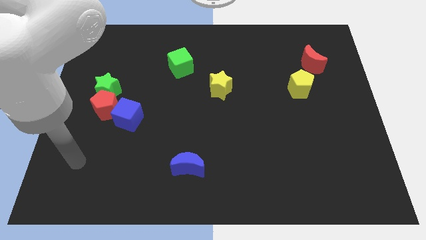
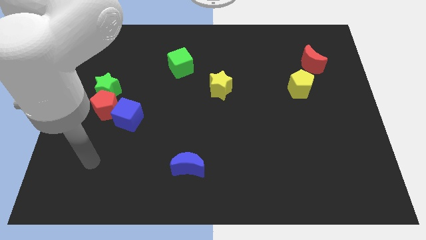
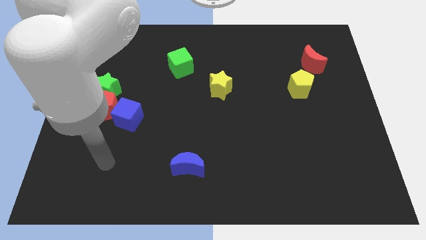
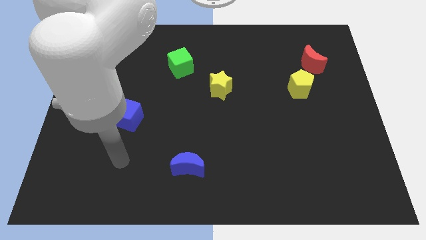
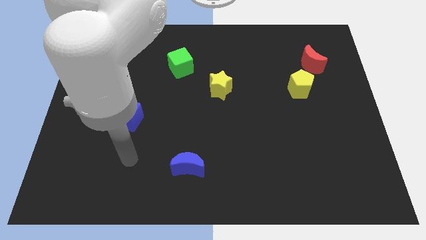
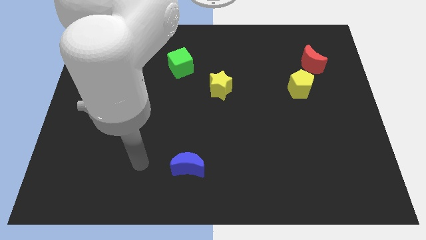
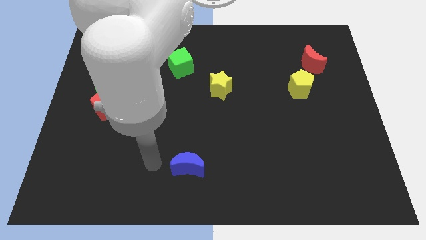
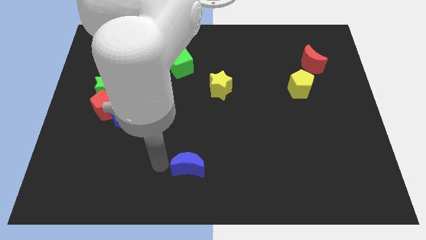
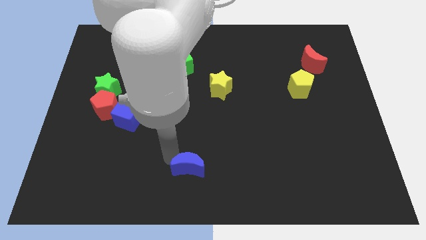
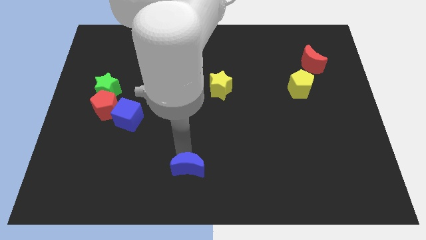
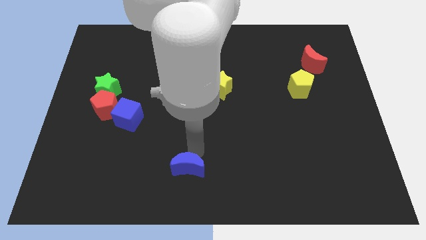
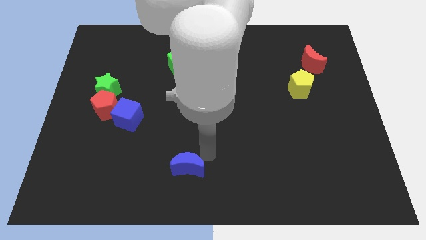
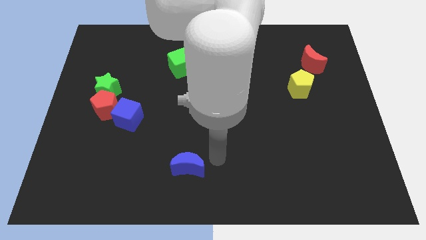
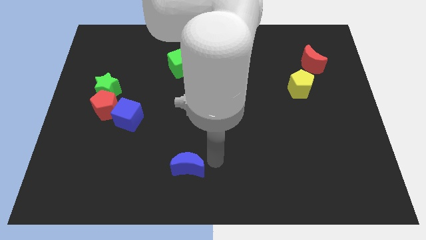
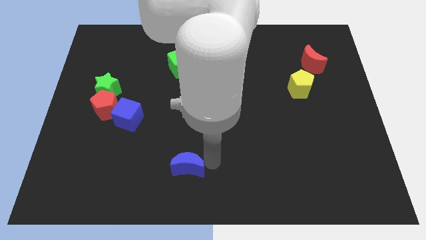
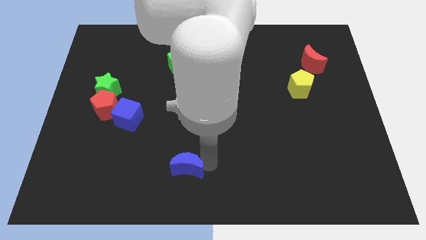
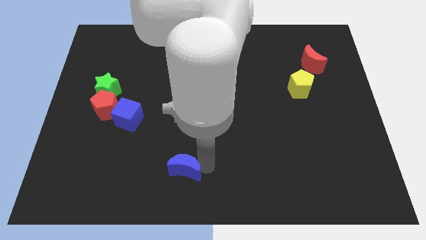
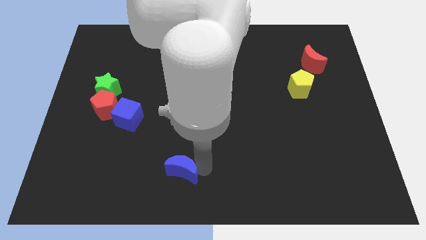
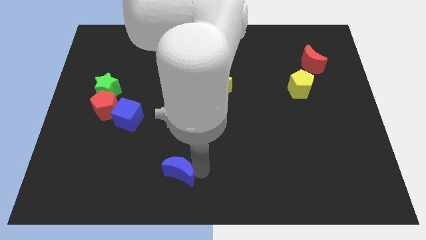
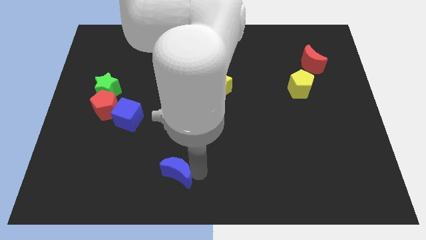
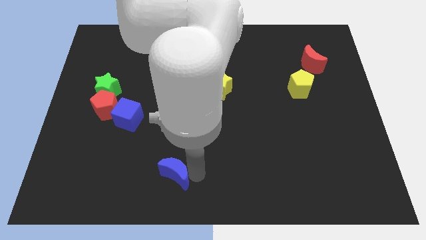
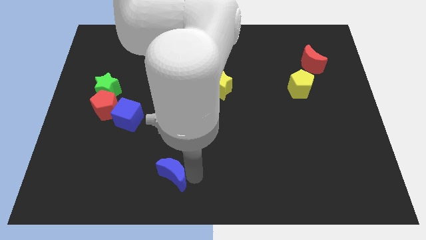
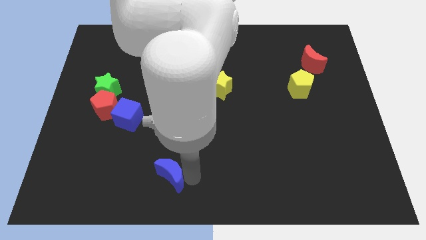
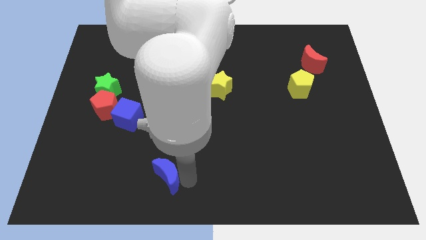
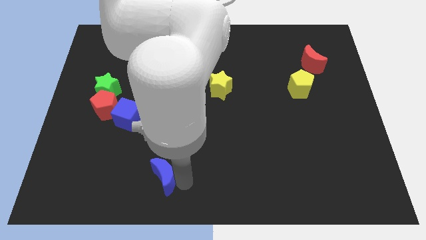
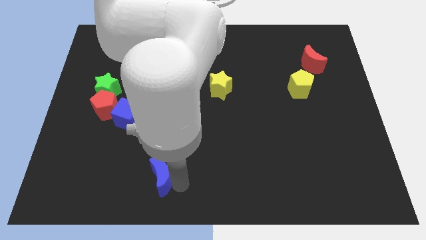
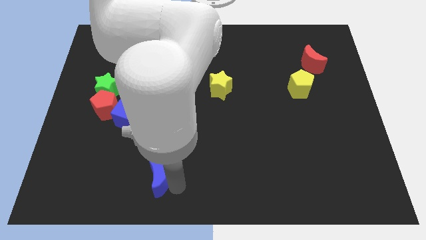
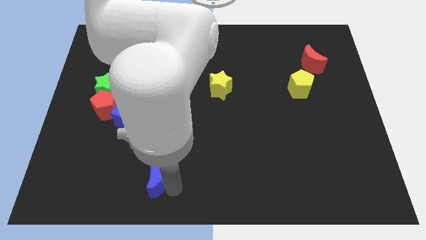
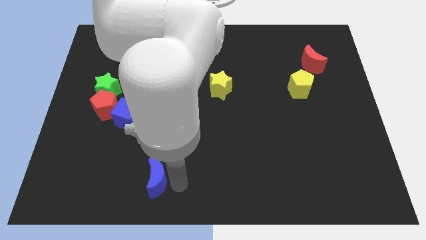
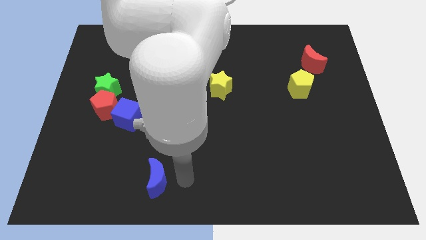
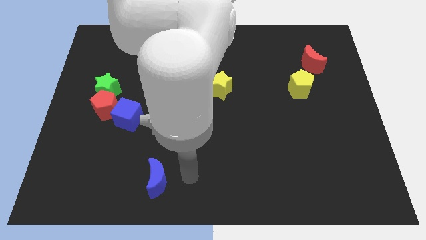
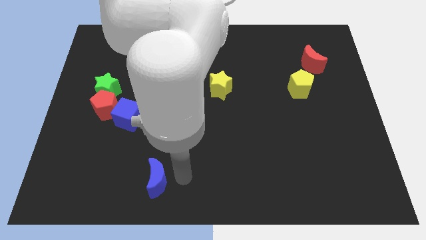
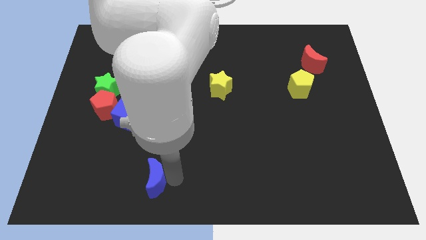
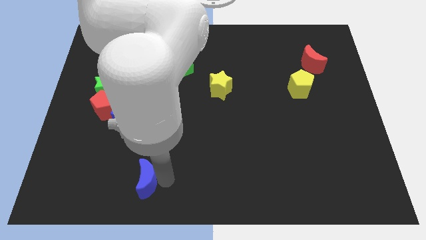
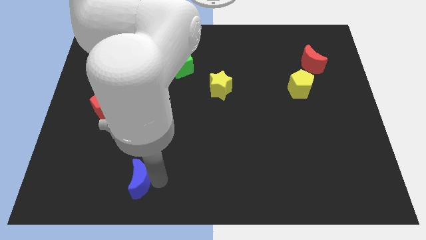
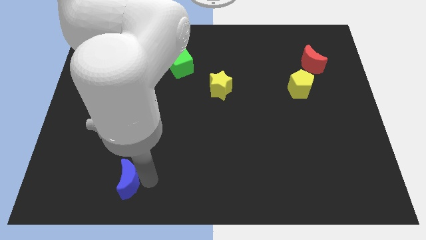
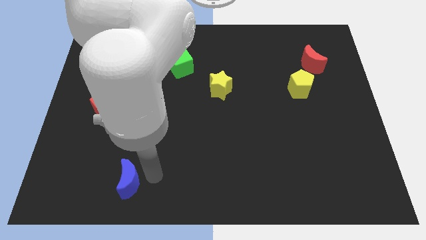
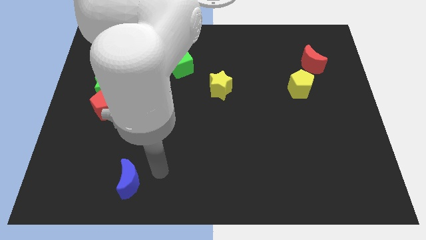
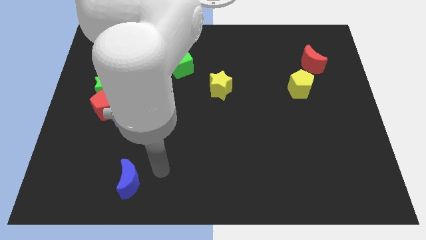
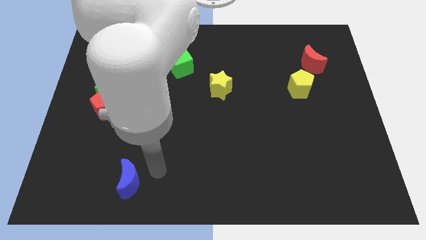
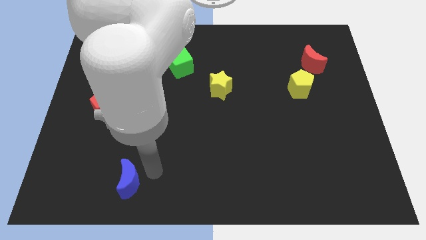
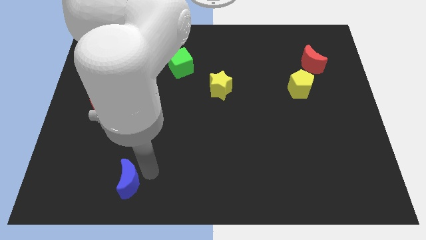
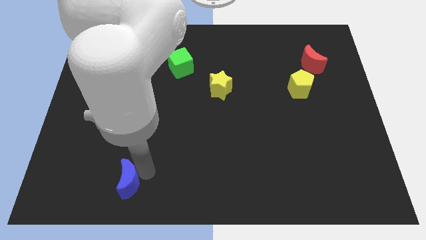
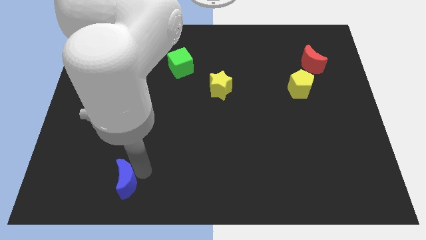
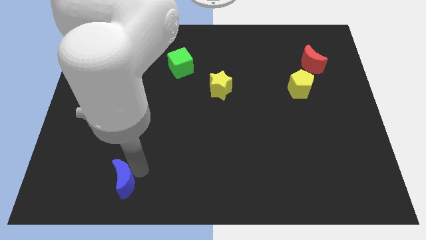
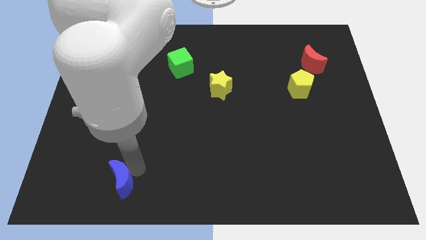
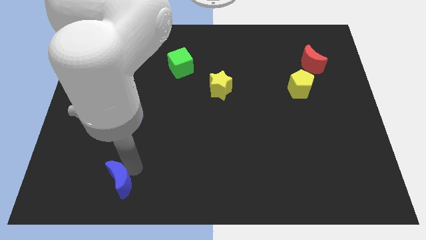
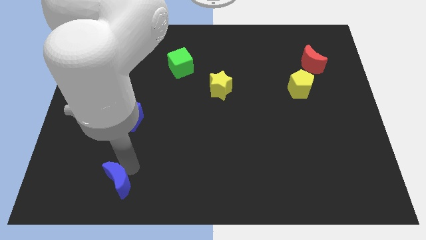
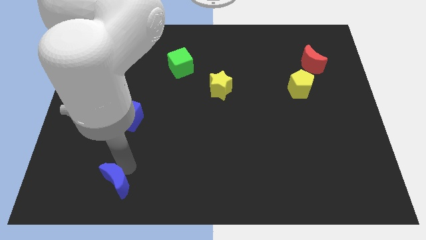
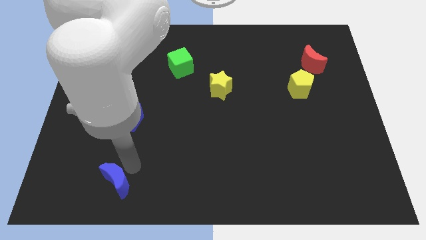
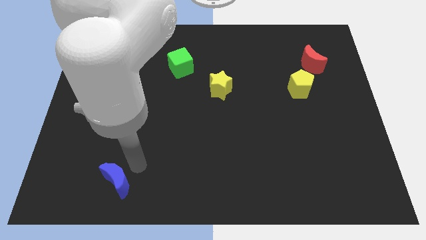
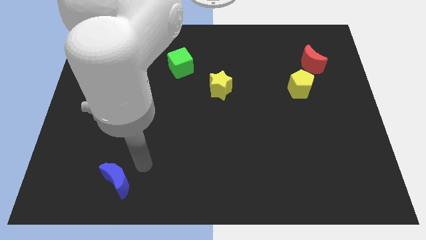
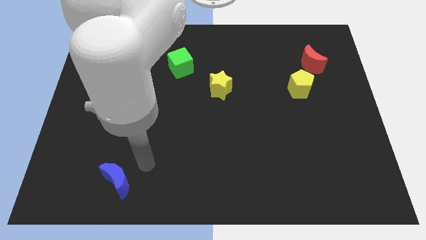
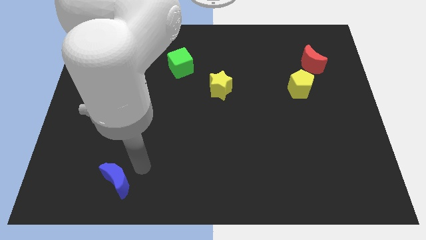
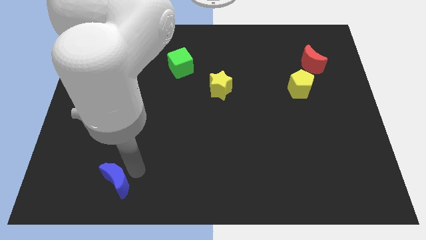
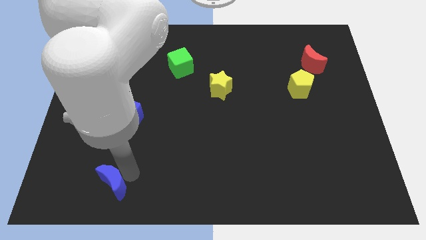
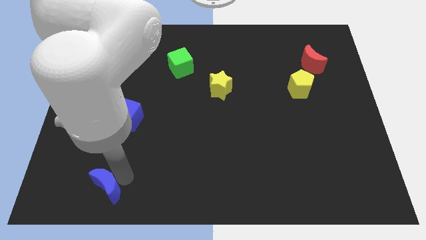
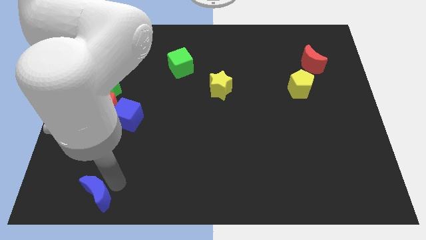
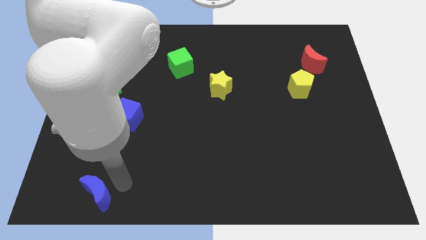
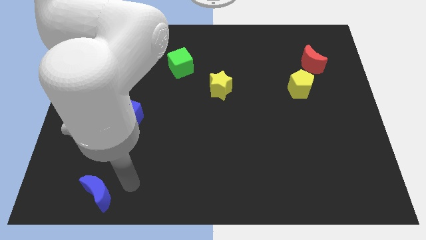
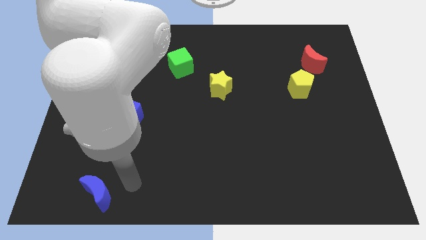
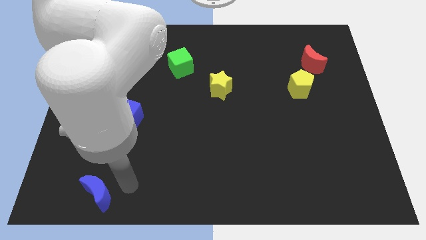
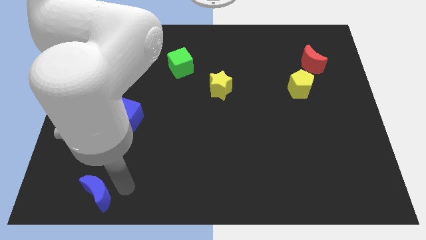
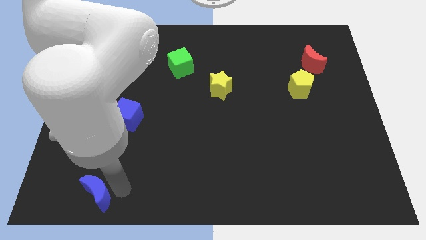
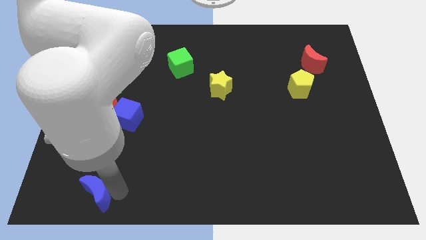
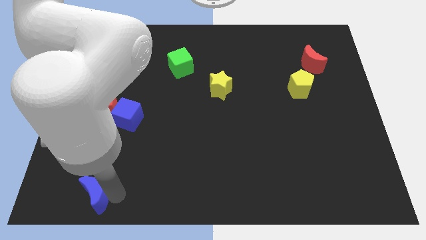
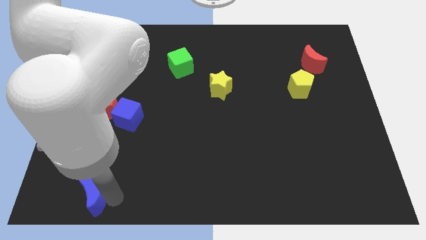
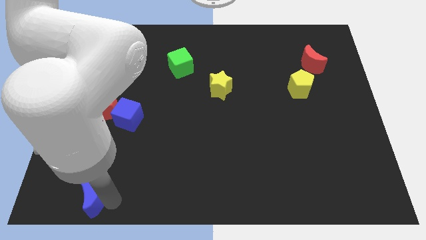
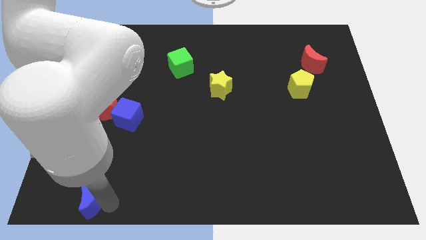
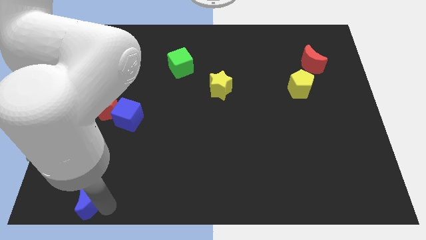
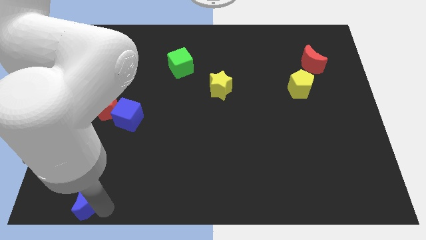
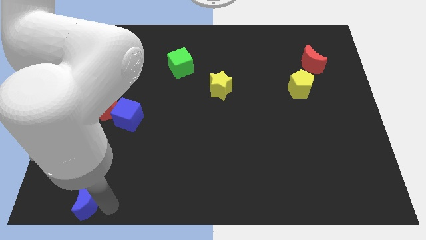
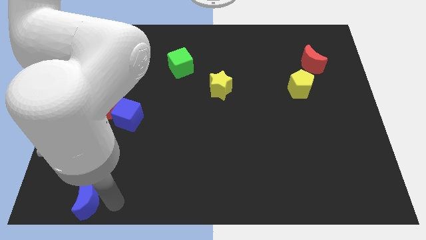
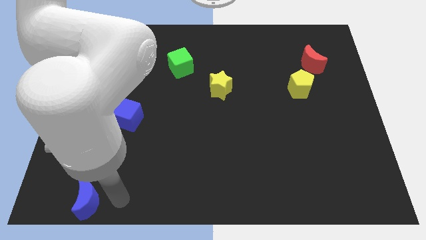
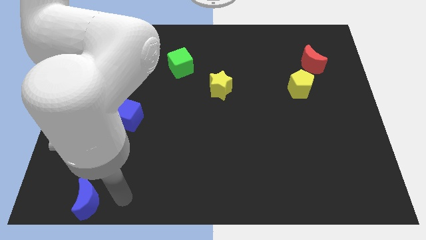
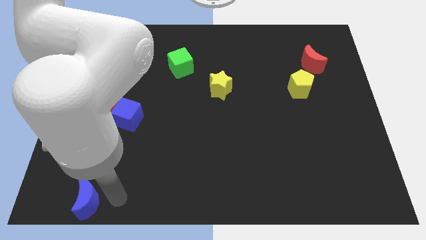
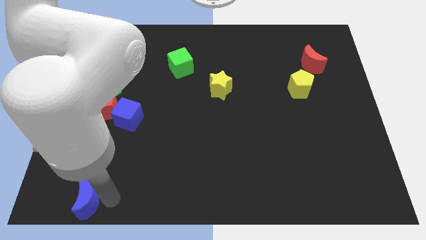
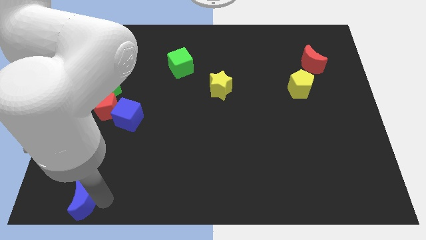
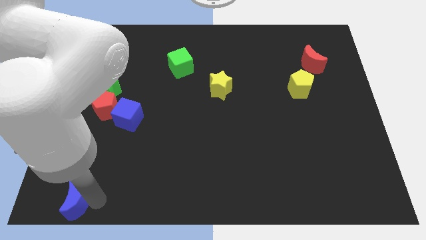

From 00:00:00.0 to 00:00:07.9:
move the blue moon to the bottom left
